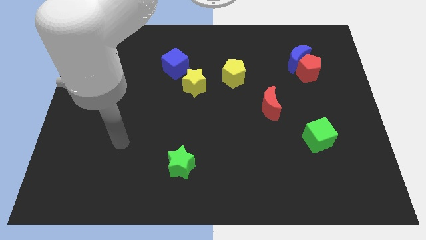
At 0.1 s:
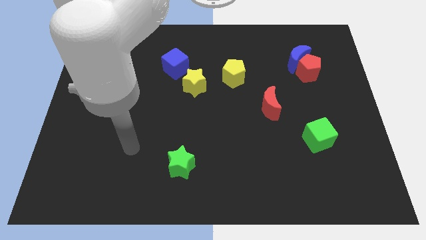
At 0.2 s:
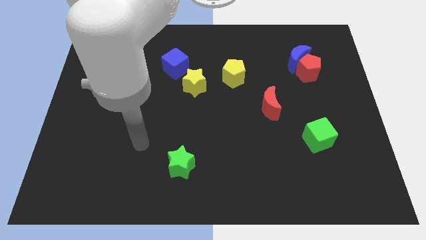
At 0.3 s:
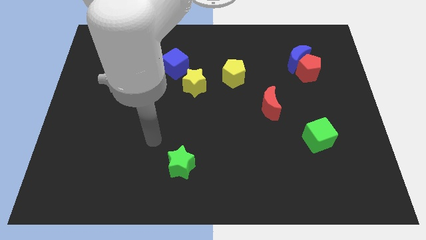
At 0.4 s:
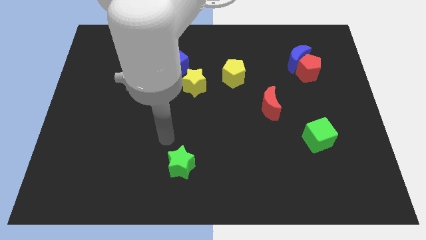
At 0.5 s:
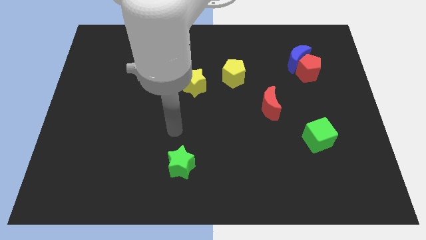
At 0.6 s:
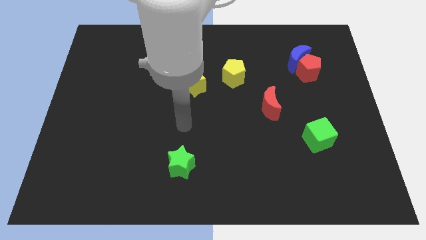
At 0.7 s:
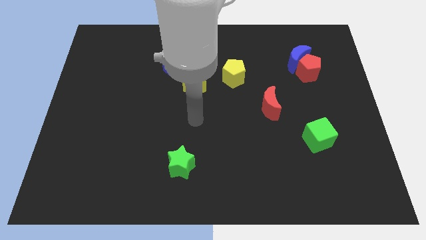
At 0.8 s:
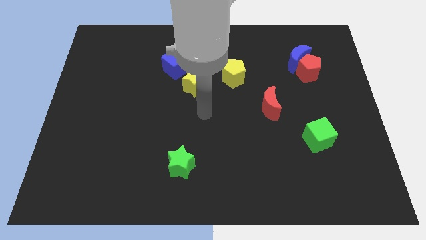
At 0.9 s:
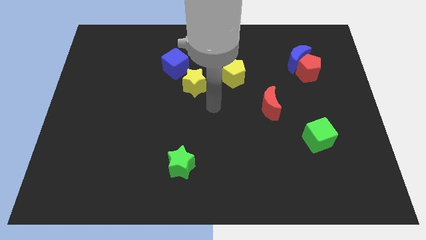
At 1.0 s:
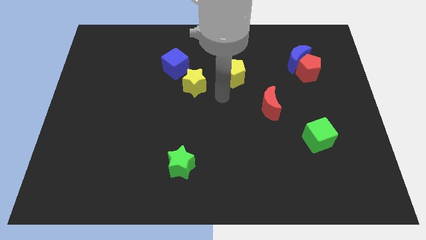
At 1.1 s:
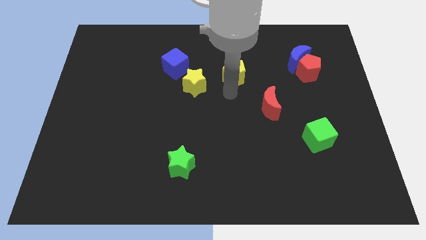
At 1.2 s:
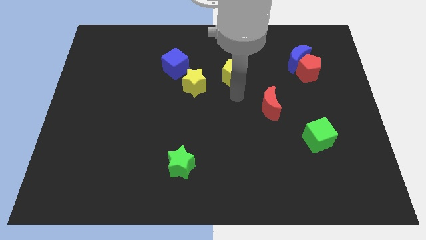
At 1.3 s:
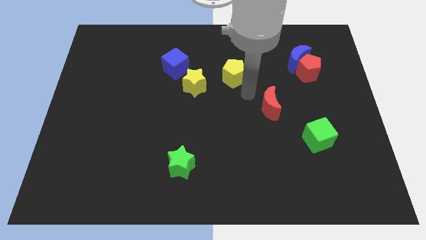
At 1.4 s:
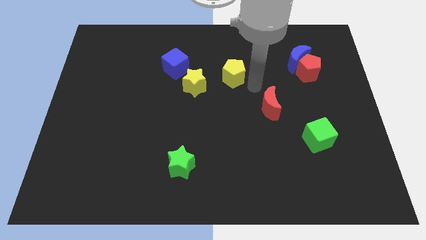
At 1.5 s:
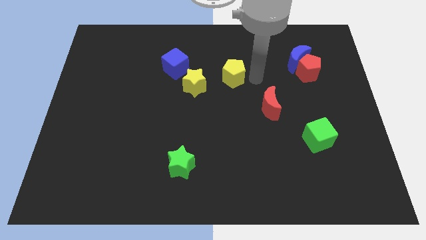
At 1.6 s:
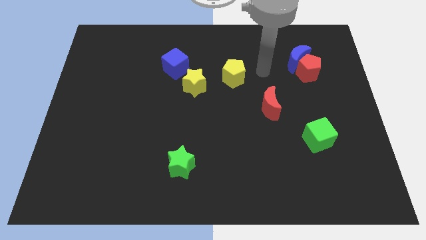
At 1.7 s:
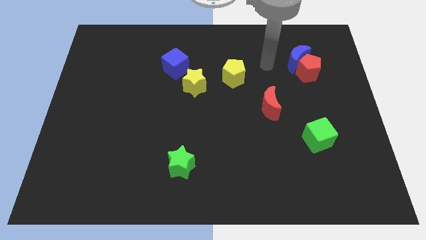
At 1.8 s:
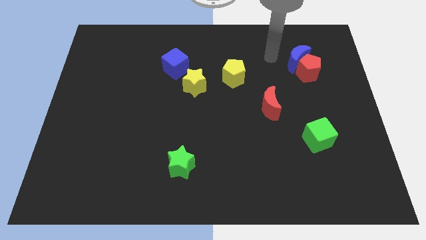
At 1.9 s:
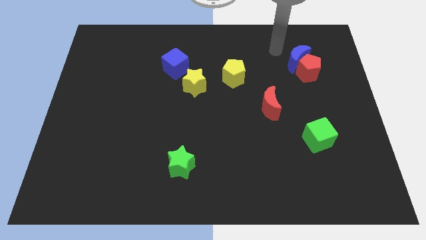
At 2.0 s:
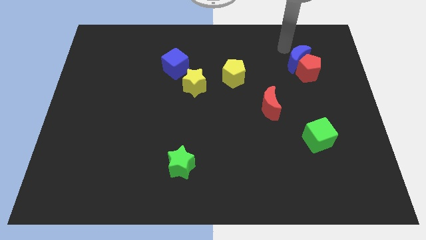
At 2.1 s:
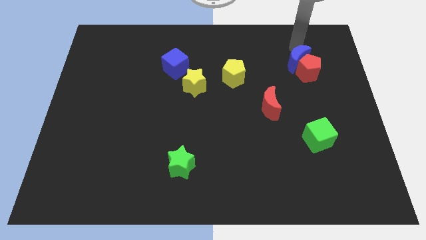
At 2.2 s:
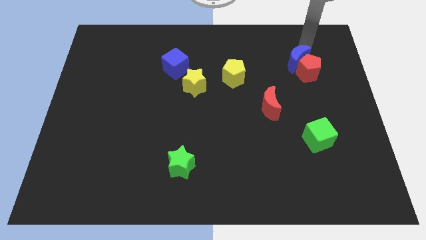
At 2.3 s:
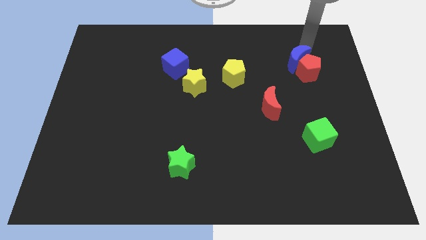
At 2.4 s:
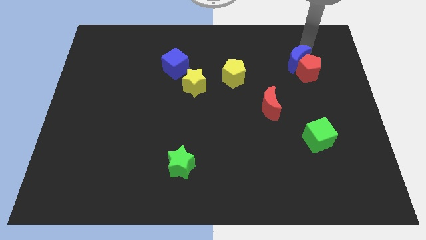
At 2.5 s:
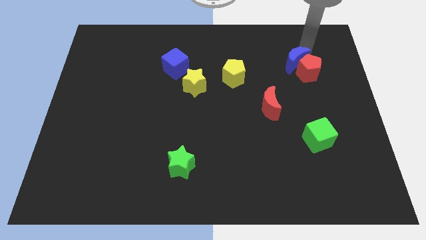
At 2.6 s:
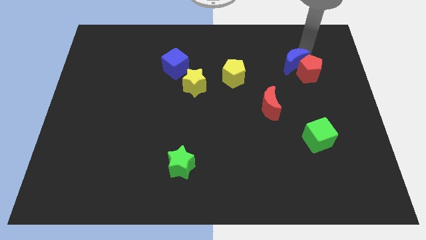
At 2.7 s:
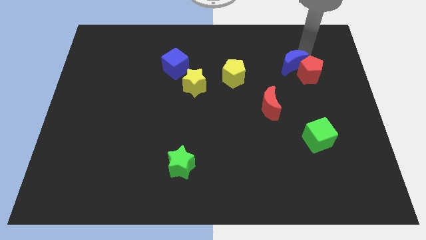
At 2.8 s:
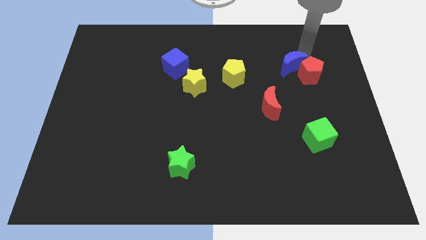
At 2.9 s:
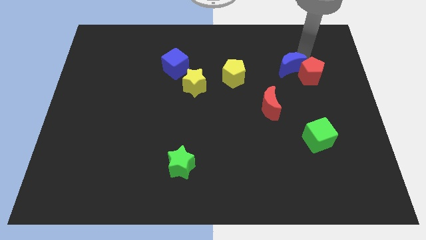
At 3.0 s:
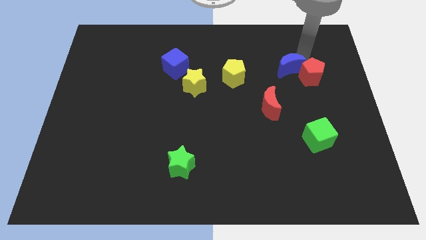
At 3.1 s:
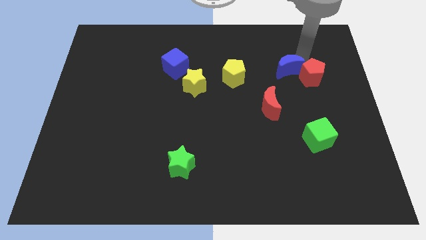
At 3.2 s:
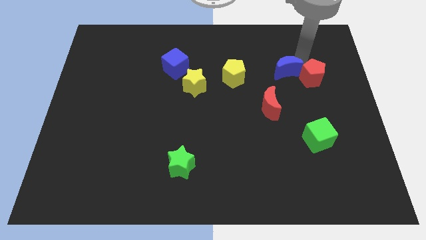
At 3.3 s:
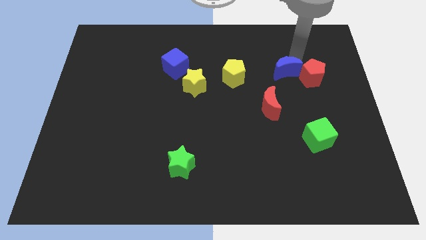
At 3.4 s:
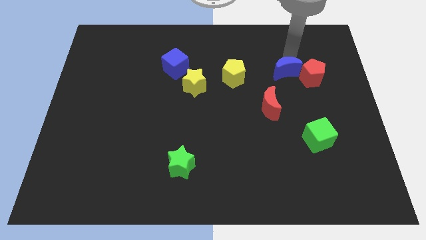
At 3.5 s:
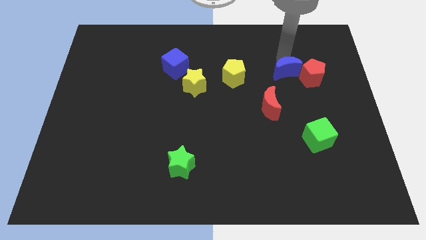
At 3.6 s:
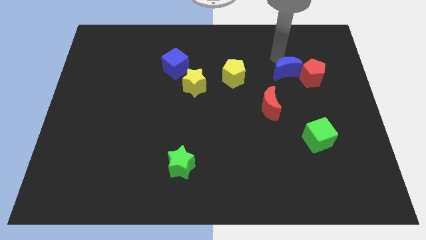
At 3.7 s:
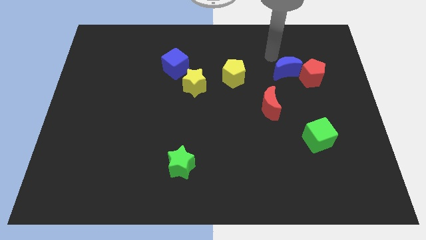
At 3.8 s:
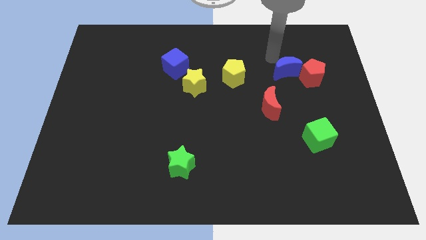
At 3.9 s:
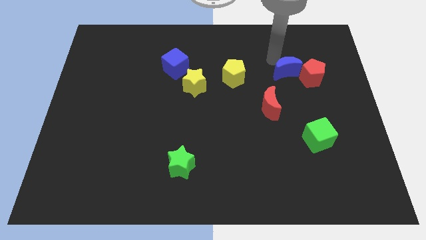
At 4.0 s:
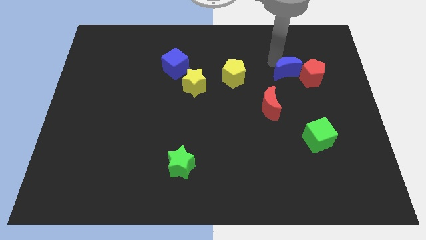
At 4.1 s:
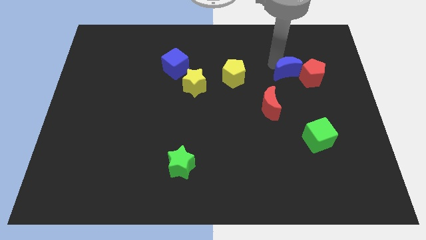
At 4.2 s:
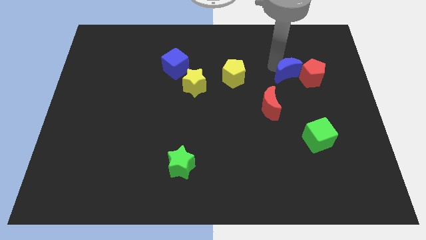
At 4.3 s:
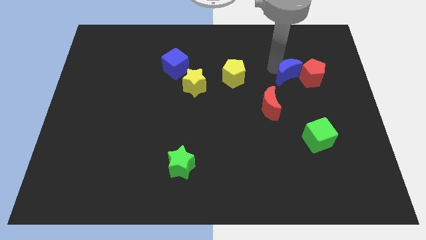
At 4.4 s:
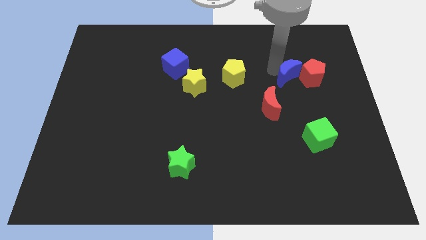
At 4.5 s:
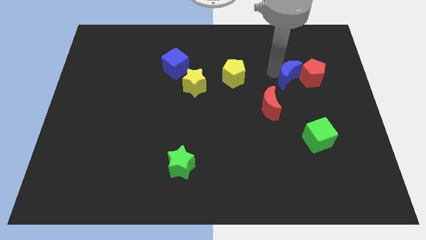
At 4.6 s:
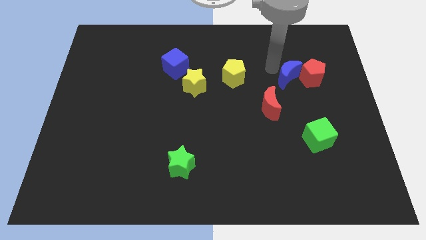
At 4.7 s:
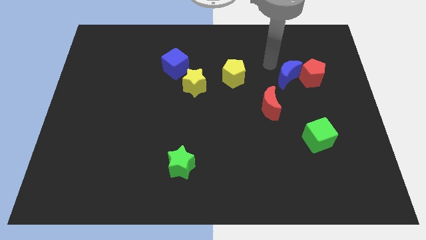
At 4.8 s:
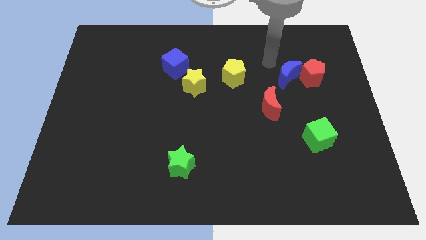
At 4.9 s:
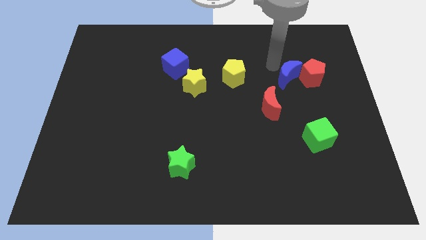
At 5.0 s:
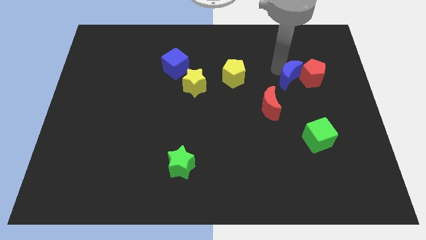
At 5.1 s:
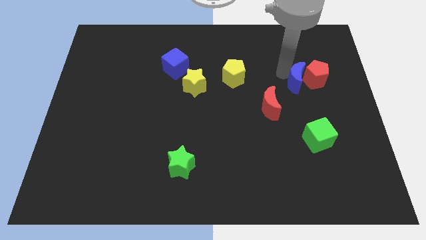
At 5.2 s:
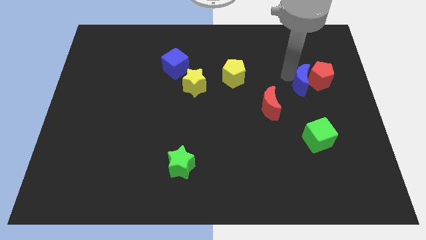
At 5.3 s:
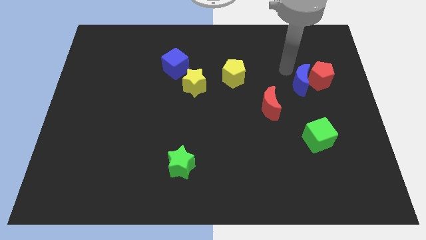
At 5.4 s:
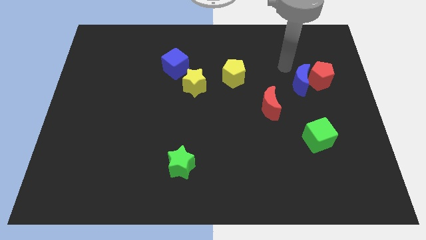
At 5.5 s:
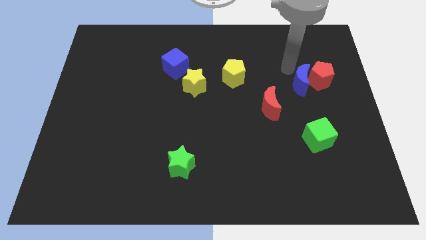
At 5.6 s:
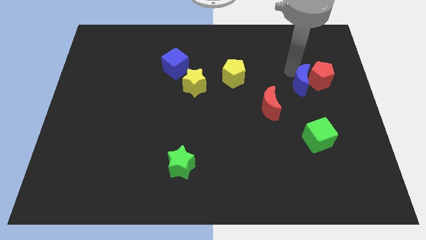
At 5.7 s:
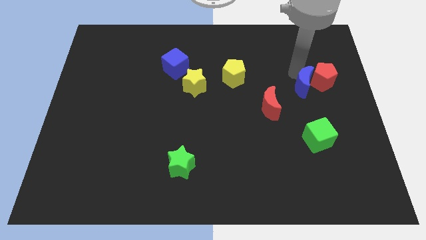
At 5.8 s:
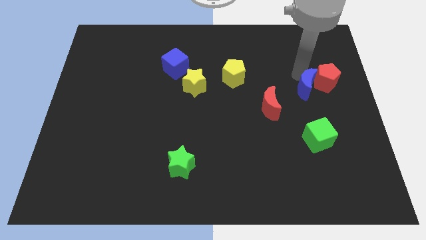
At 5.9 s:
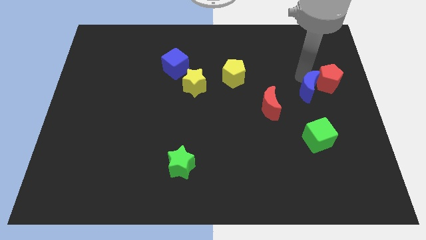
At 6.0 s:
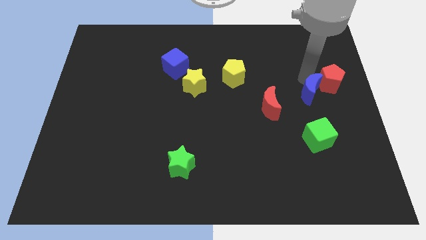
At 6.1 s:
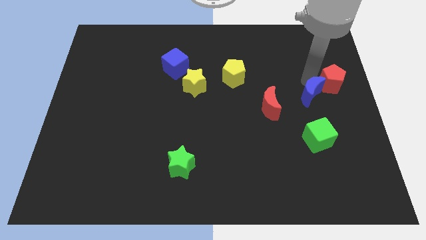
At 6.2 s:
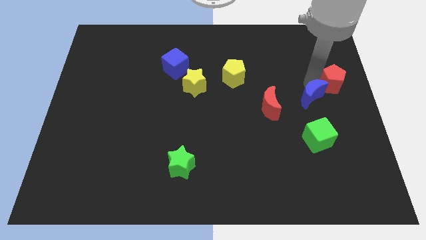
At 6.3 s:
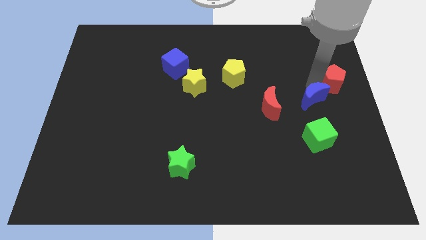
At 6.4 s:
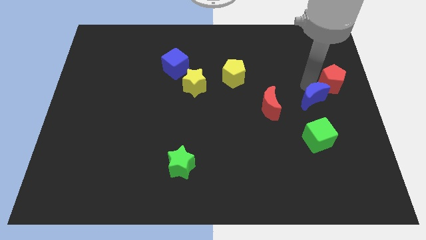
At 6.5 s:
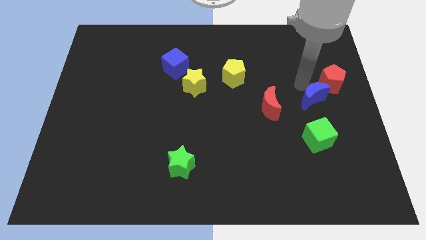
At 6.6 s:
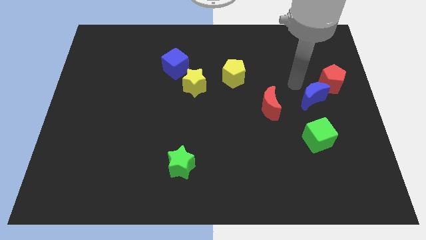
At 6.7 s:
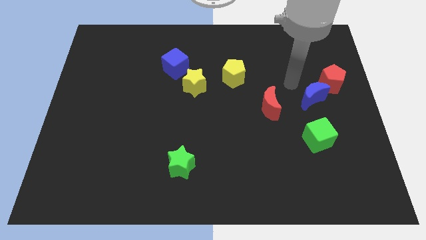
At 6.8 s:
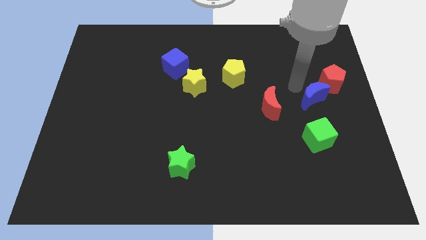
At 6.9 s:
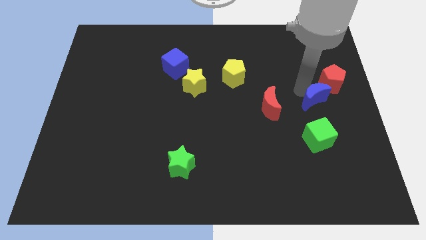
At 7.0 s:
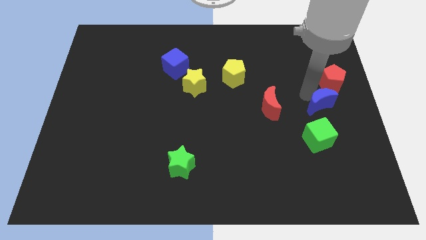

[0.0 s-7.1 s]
slide the blue moon to the bottom side of the red pentagon

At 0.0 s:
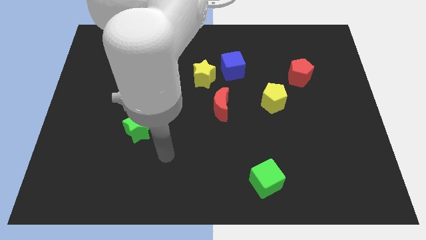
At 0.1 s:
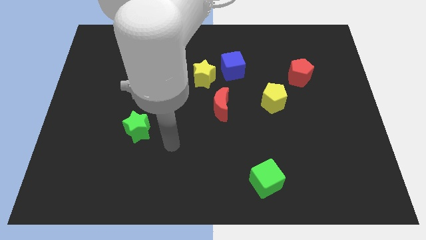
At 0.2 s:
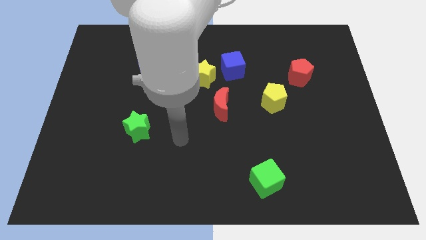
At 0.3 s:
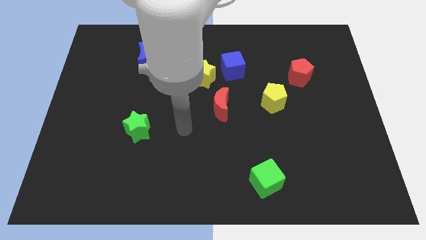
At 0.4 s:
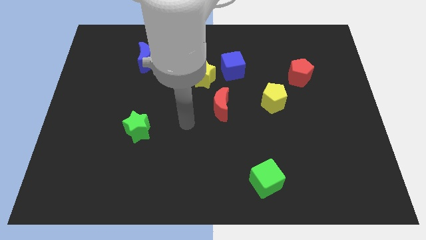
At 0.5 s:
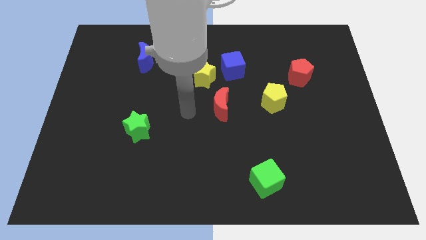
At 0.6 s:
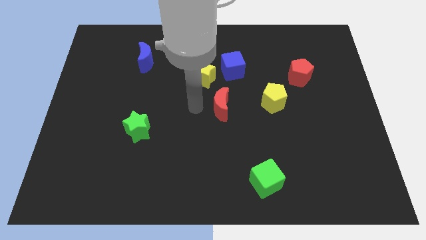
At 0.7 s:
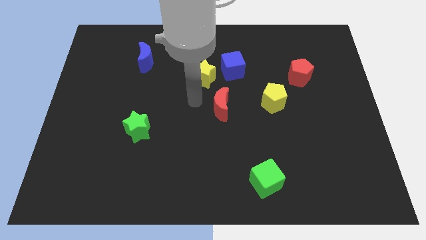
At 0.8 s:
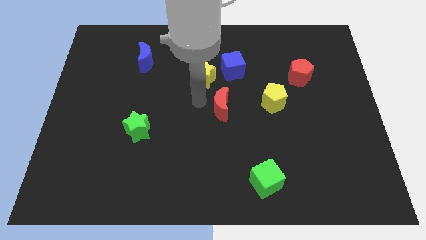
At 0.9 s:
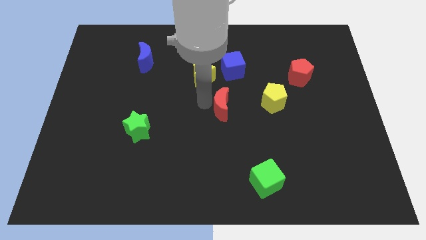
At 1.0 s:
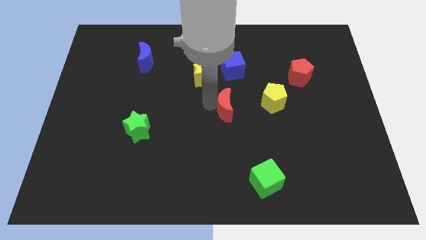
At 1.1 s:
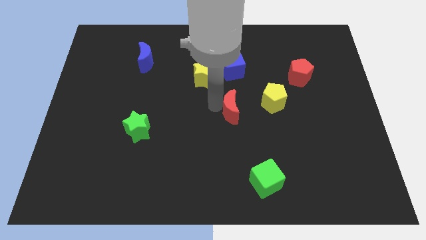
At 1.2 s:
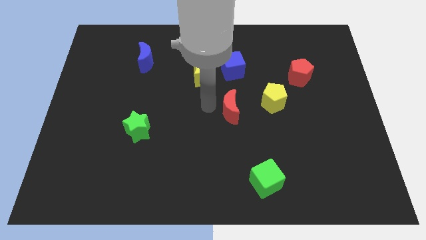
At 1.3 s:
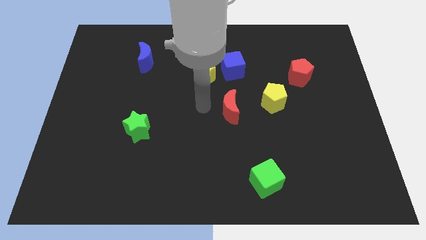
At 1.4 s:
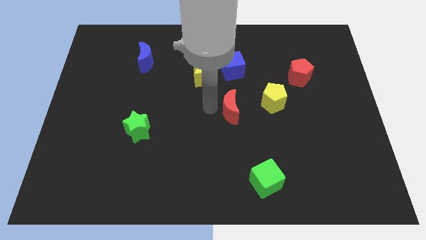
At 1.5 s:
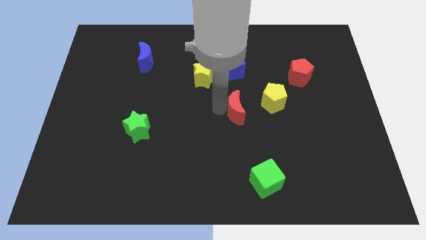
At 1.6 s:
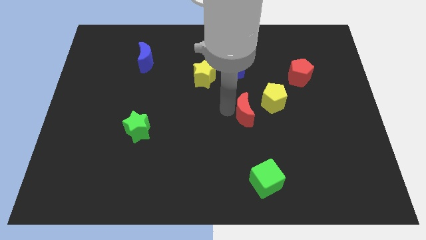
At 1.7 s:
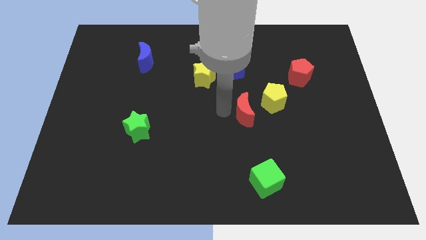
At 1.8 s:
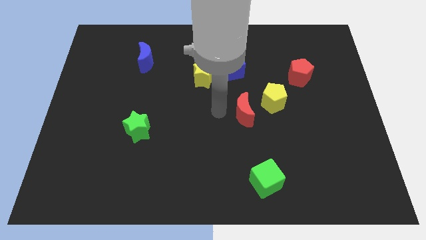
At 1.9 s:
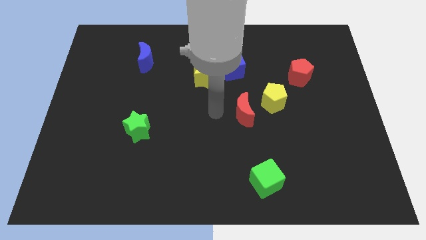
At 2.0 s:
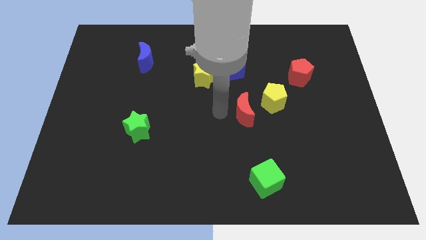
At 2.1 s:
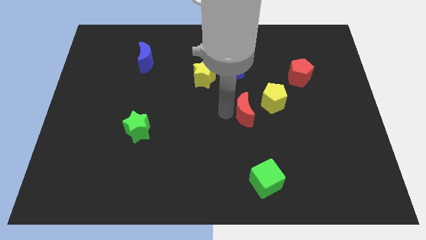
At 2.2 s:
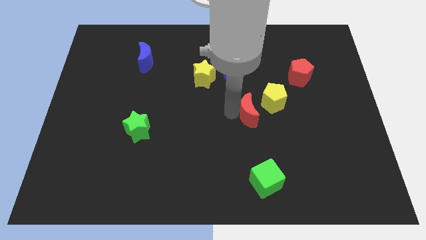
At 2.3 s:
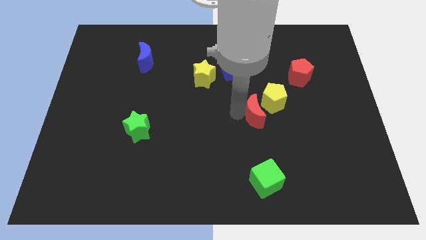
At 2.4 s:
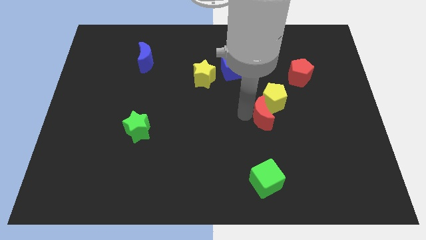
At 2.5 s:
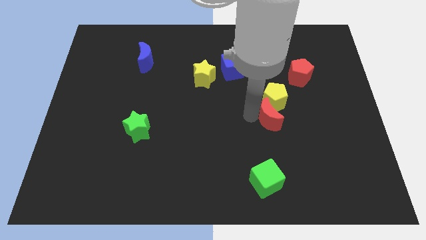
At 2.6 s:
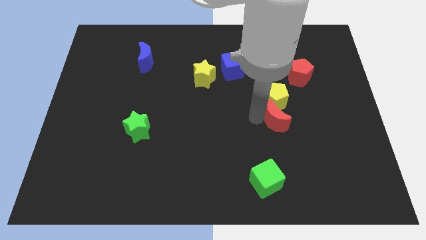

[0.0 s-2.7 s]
move the red moon to the bottom right side of the yellow pentagon
